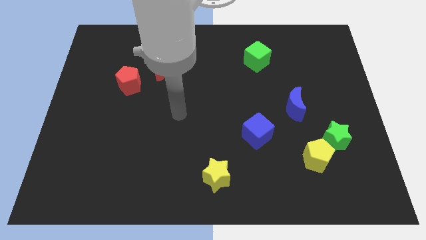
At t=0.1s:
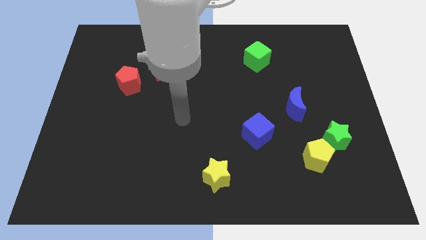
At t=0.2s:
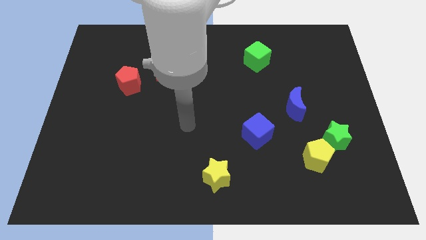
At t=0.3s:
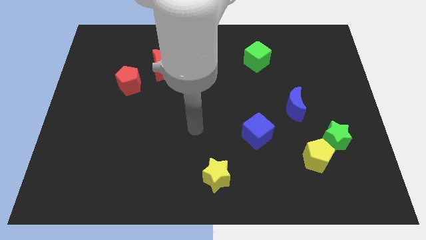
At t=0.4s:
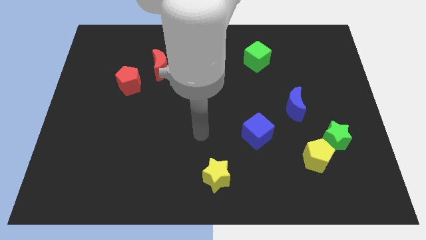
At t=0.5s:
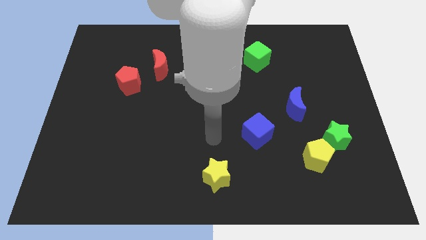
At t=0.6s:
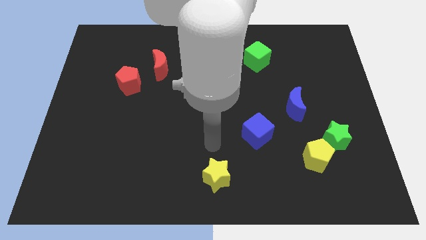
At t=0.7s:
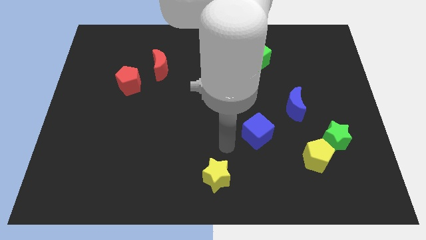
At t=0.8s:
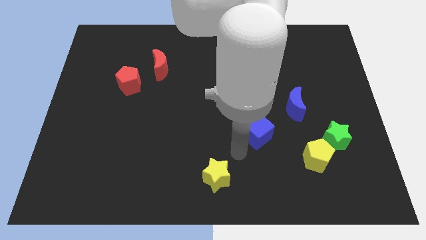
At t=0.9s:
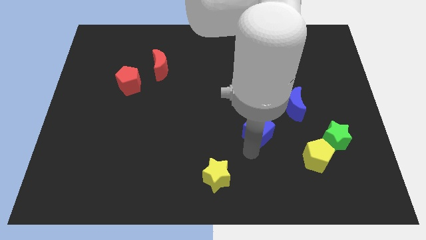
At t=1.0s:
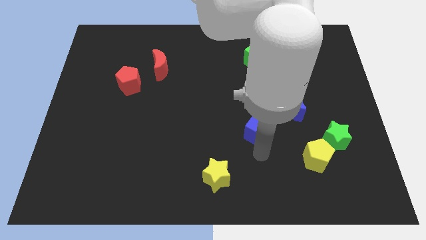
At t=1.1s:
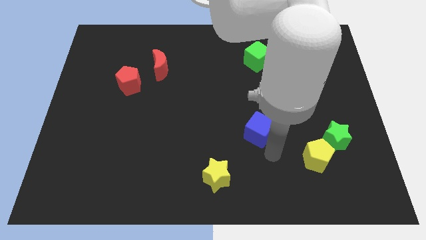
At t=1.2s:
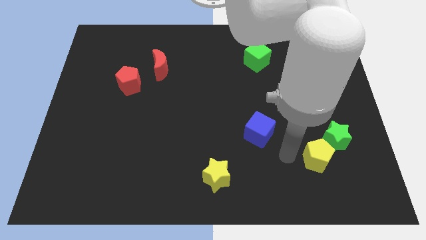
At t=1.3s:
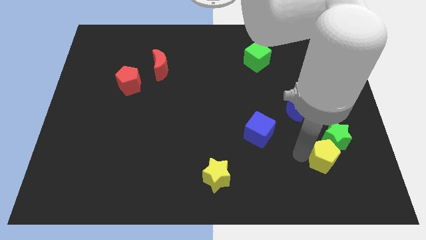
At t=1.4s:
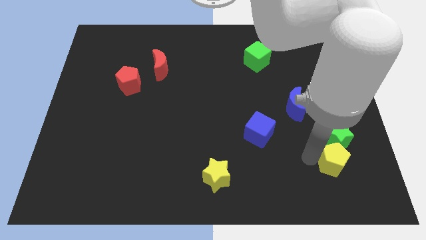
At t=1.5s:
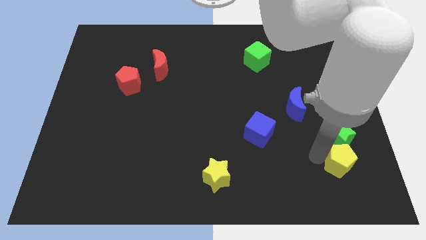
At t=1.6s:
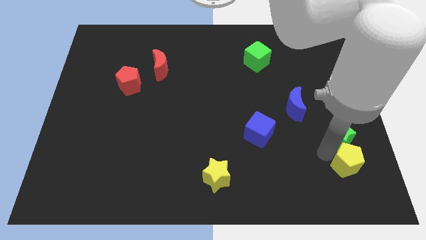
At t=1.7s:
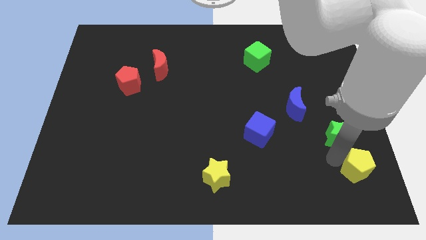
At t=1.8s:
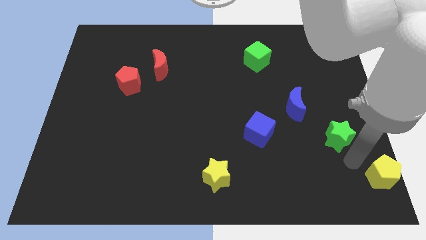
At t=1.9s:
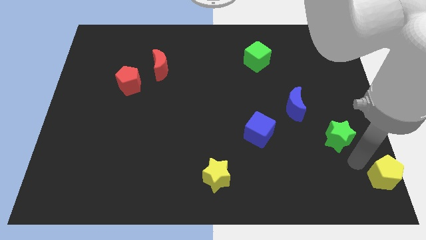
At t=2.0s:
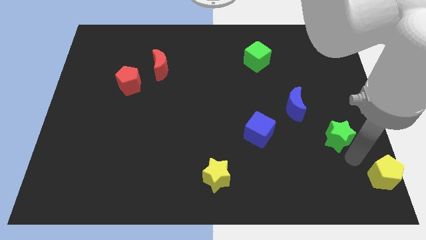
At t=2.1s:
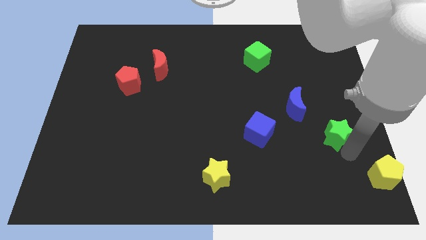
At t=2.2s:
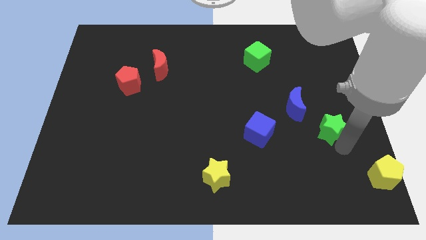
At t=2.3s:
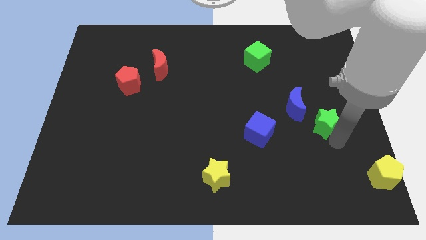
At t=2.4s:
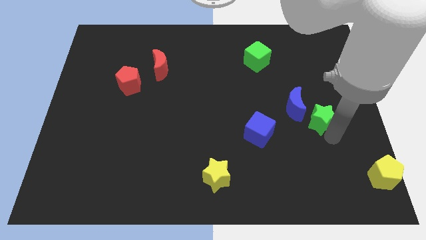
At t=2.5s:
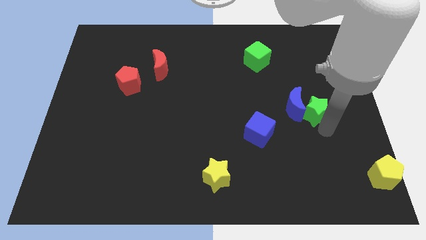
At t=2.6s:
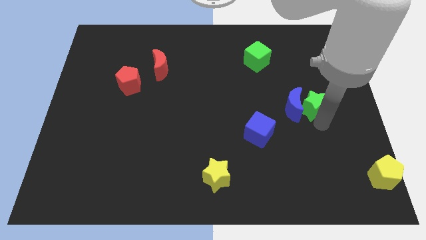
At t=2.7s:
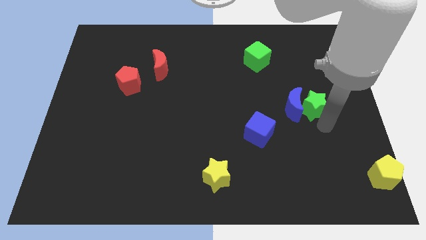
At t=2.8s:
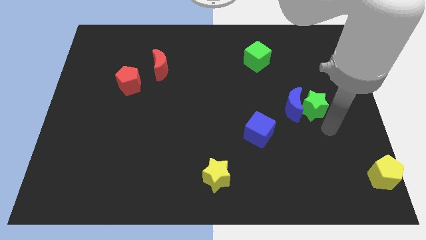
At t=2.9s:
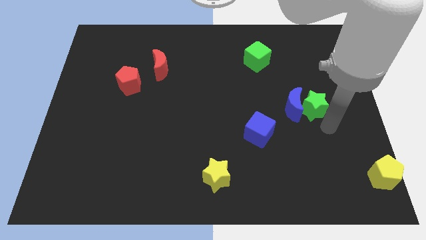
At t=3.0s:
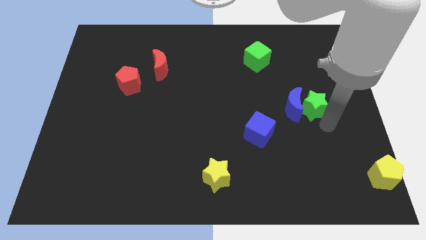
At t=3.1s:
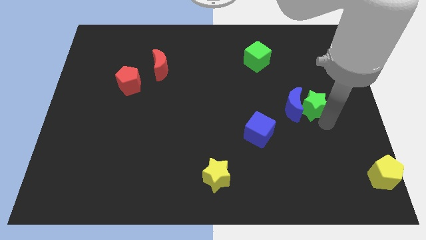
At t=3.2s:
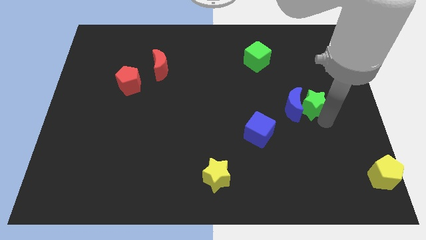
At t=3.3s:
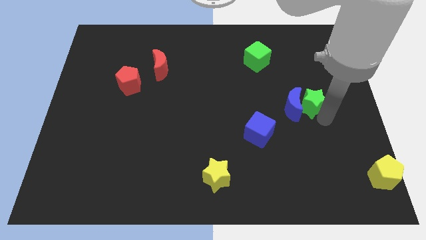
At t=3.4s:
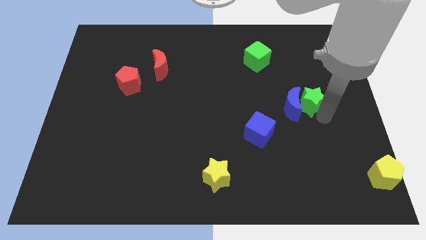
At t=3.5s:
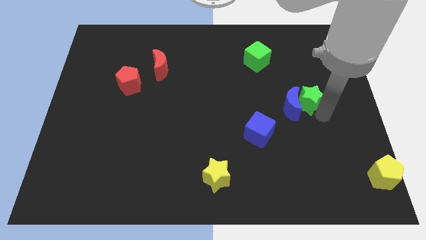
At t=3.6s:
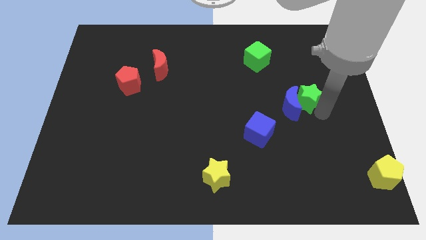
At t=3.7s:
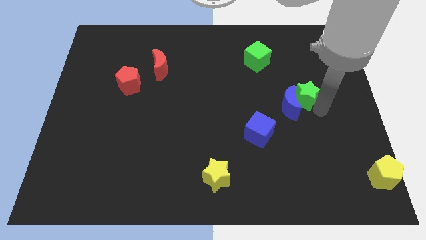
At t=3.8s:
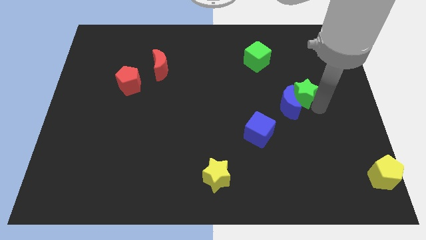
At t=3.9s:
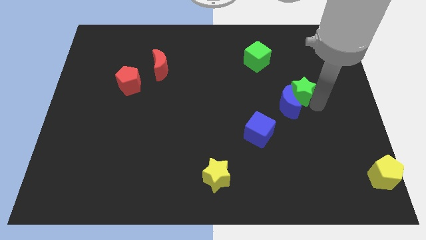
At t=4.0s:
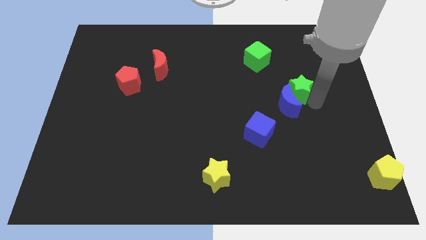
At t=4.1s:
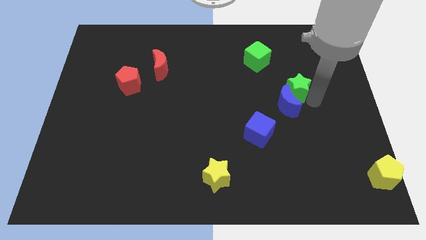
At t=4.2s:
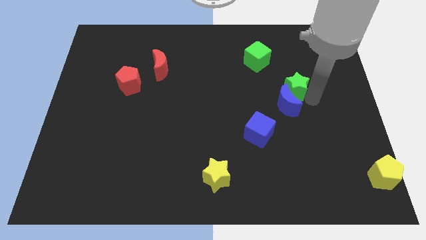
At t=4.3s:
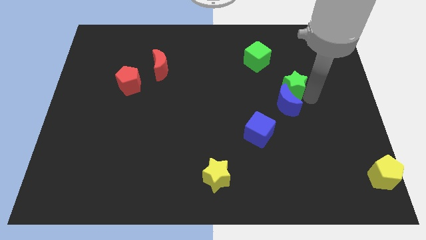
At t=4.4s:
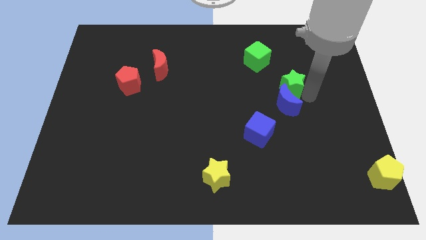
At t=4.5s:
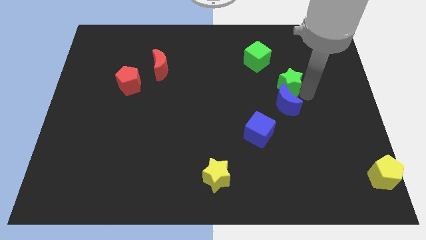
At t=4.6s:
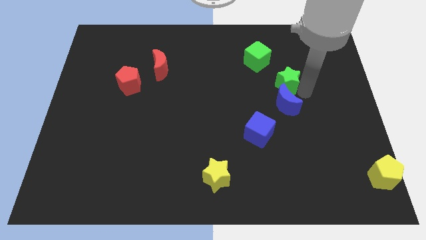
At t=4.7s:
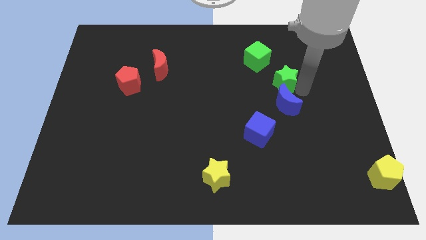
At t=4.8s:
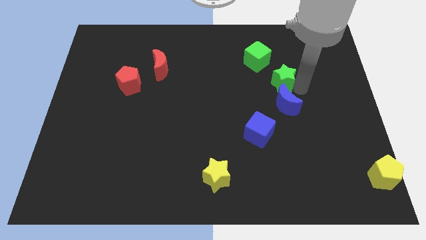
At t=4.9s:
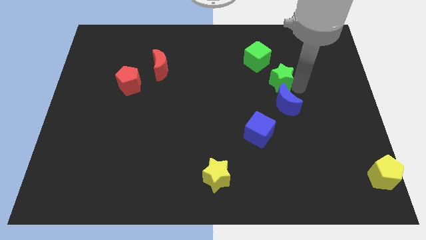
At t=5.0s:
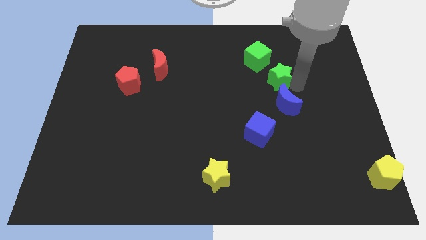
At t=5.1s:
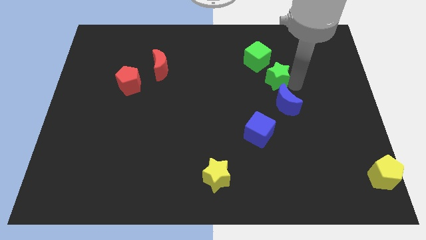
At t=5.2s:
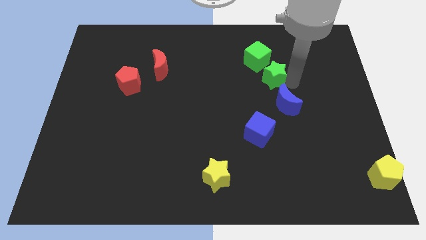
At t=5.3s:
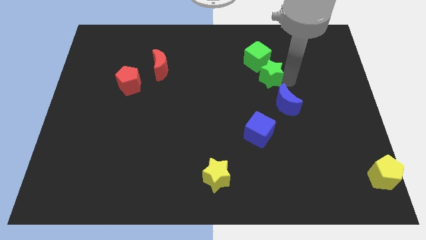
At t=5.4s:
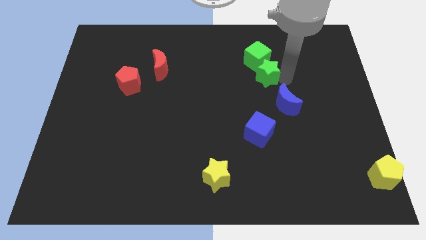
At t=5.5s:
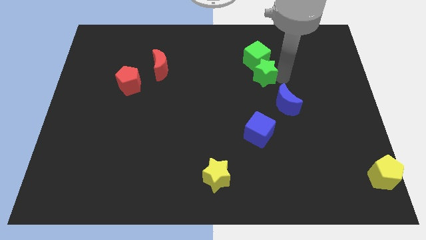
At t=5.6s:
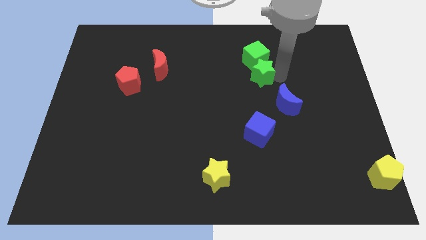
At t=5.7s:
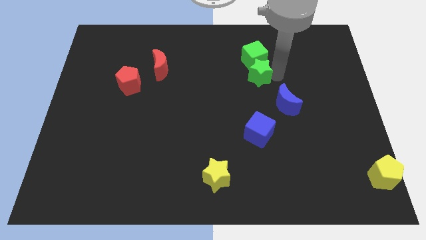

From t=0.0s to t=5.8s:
move the green star diagonally down and to the left of the green cube

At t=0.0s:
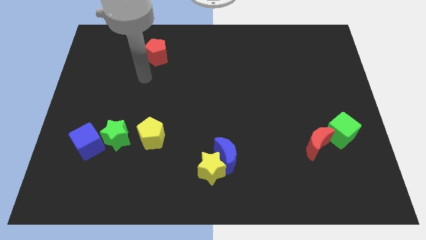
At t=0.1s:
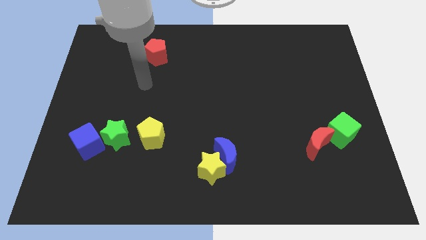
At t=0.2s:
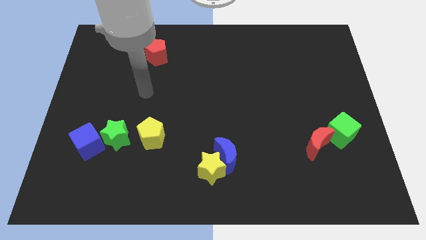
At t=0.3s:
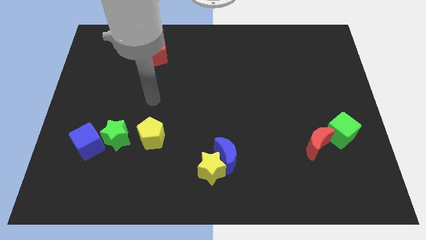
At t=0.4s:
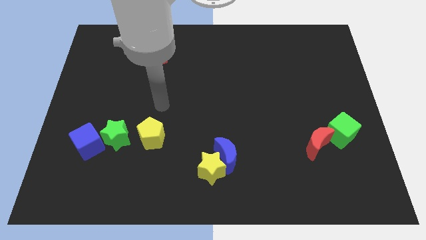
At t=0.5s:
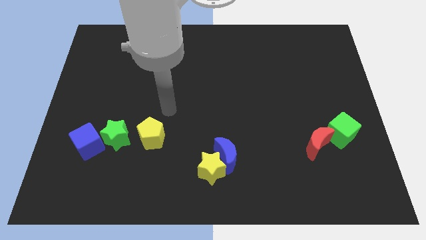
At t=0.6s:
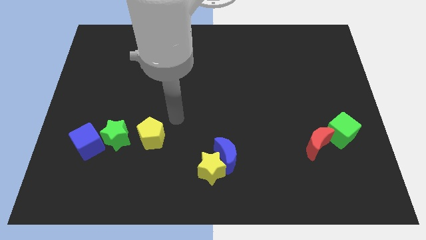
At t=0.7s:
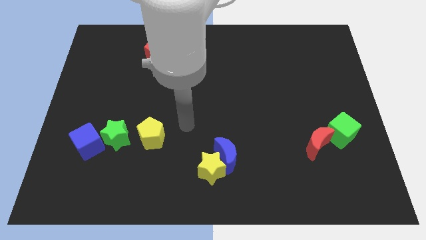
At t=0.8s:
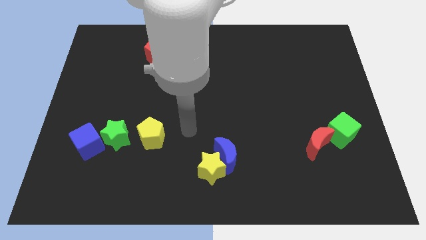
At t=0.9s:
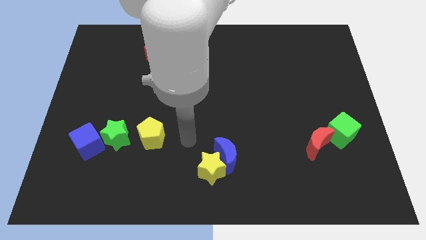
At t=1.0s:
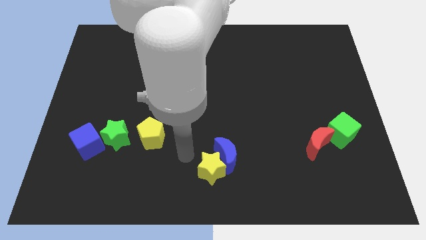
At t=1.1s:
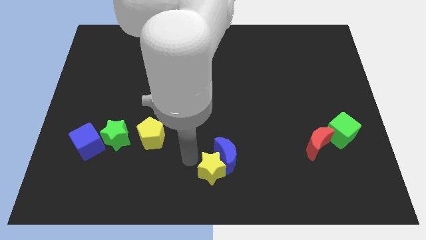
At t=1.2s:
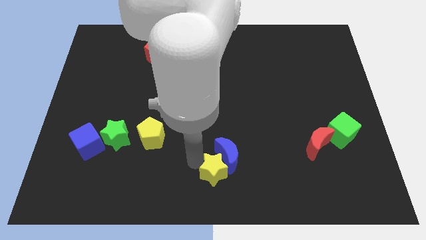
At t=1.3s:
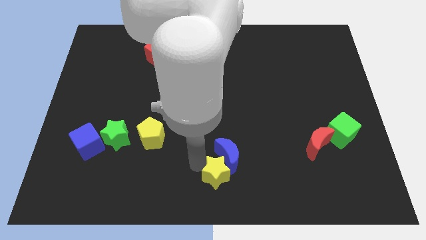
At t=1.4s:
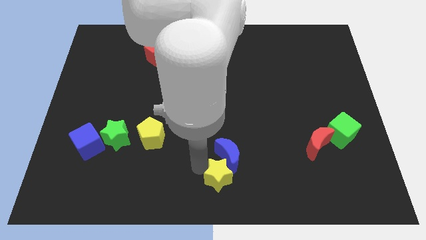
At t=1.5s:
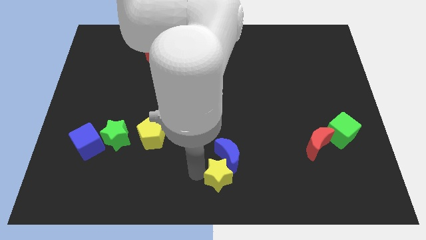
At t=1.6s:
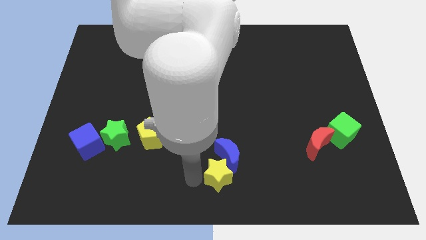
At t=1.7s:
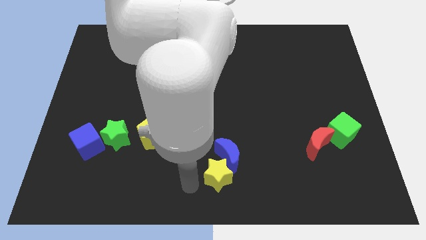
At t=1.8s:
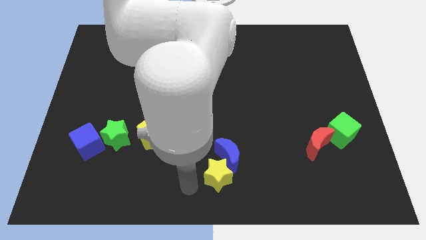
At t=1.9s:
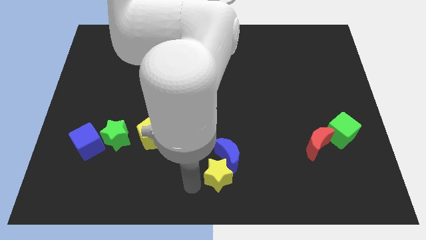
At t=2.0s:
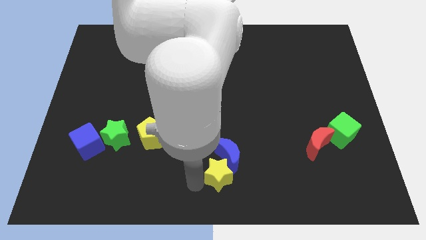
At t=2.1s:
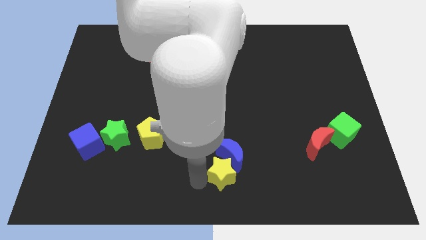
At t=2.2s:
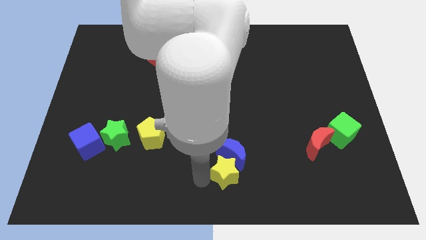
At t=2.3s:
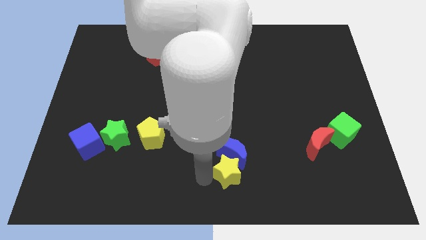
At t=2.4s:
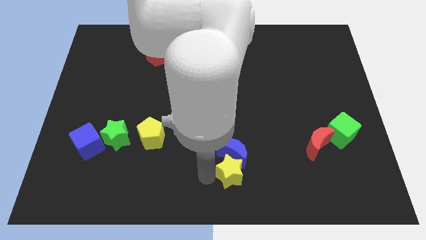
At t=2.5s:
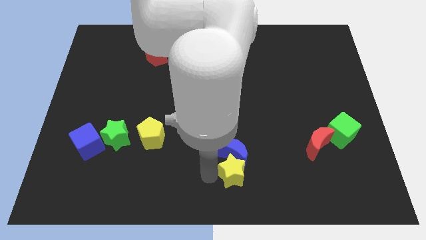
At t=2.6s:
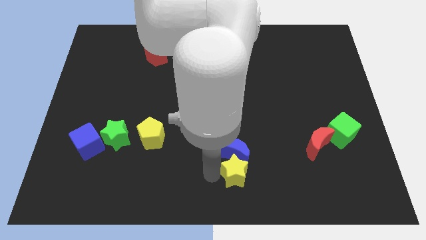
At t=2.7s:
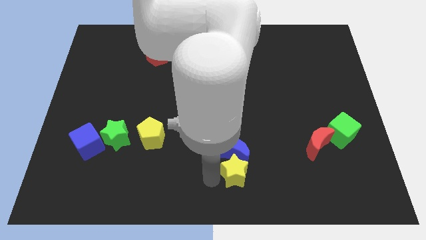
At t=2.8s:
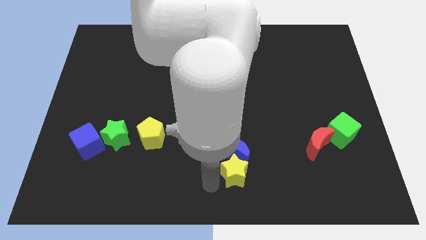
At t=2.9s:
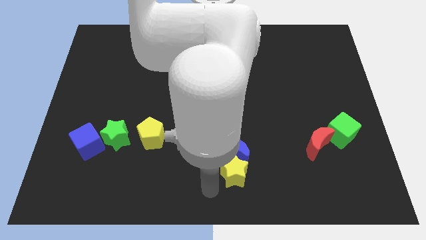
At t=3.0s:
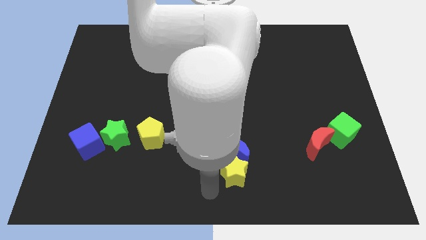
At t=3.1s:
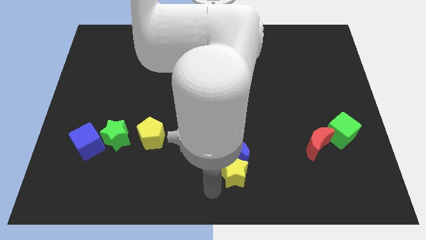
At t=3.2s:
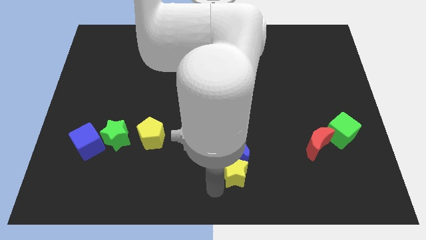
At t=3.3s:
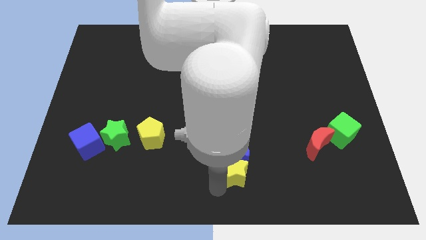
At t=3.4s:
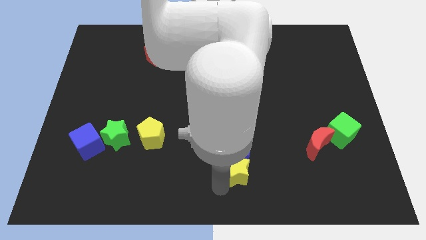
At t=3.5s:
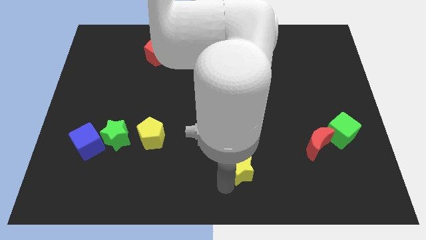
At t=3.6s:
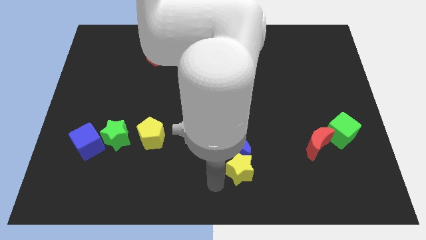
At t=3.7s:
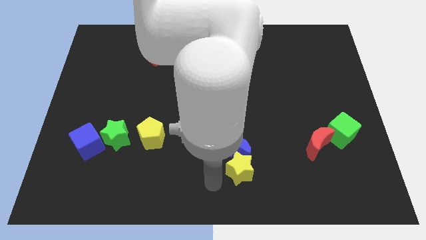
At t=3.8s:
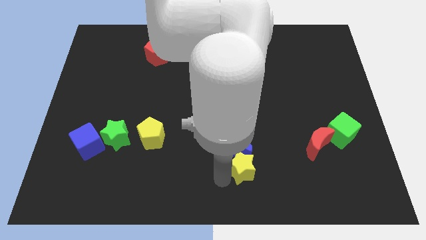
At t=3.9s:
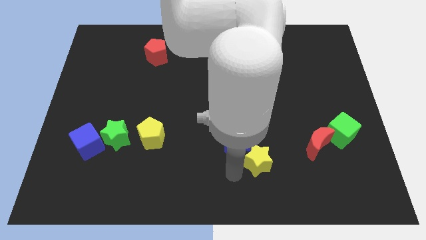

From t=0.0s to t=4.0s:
put the yellow star just right of the blue moon
